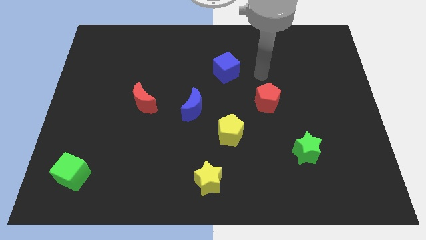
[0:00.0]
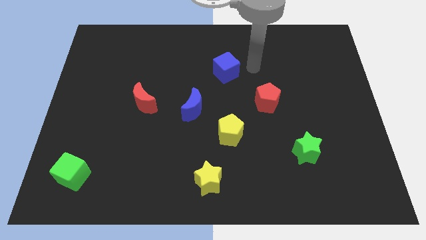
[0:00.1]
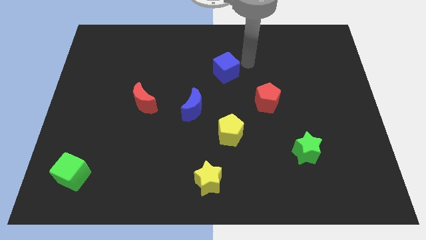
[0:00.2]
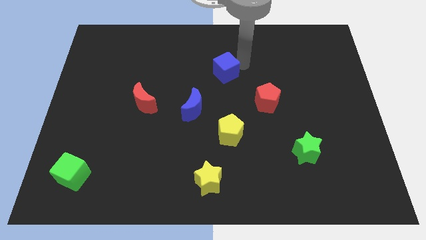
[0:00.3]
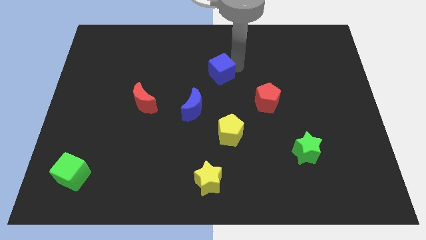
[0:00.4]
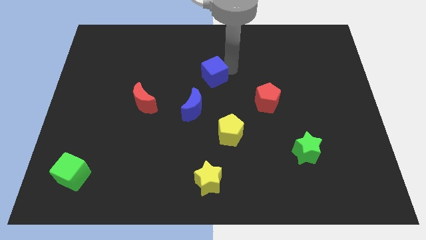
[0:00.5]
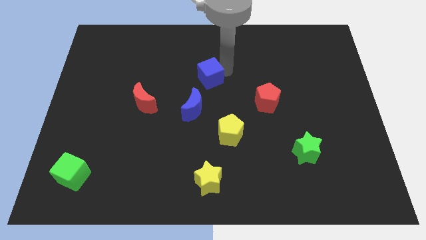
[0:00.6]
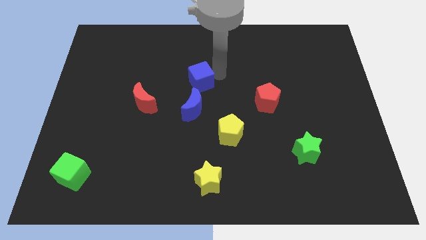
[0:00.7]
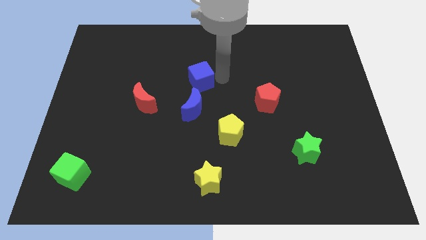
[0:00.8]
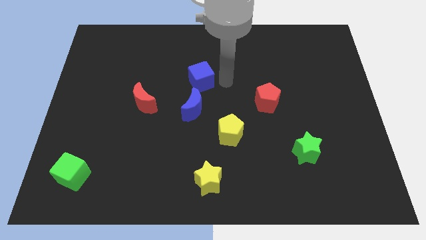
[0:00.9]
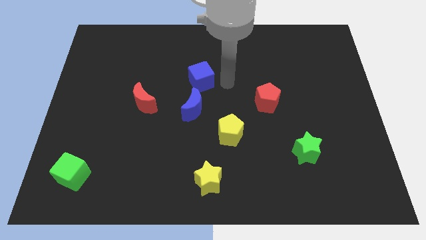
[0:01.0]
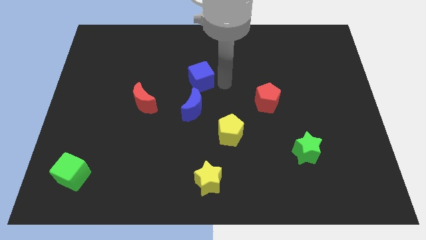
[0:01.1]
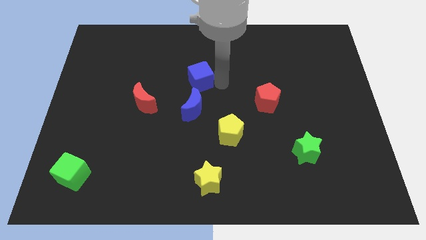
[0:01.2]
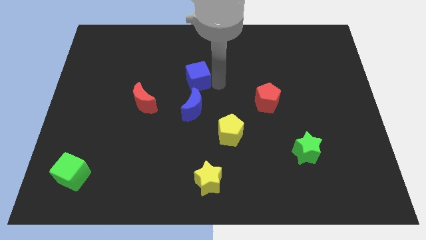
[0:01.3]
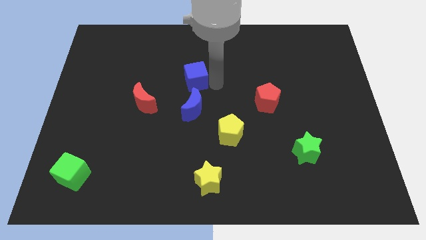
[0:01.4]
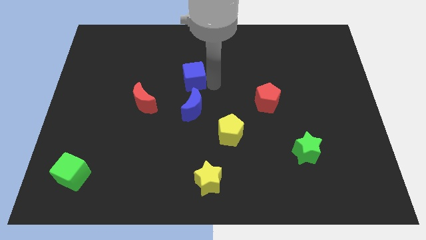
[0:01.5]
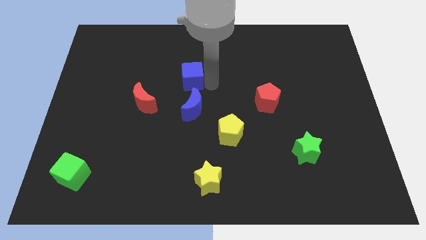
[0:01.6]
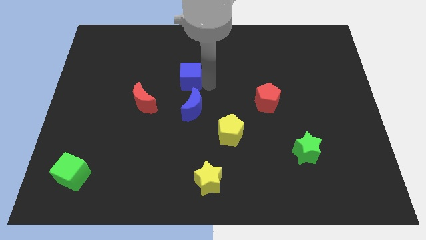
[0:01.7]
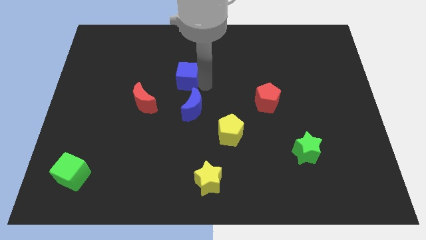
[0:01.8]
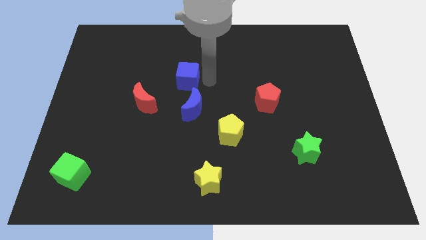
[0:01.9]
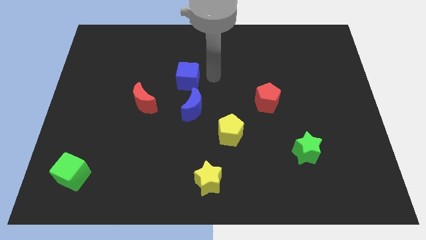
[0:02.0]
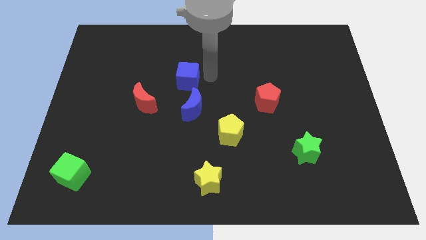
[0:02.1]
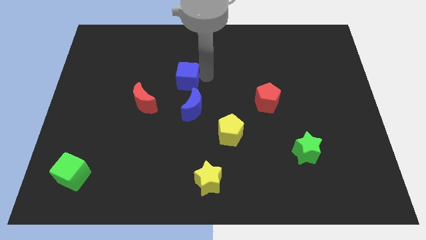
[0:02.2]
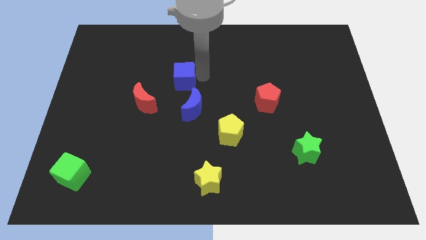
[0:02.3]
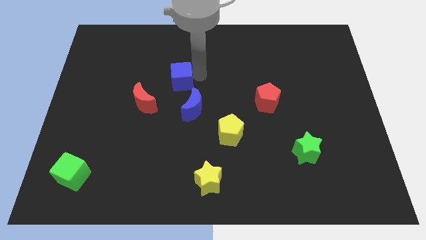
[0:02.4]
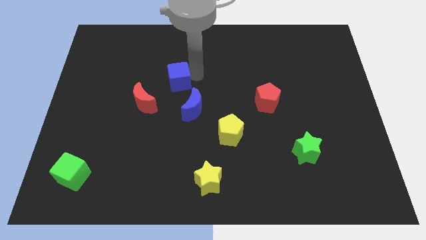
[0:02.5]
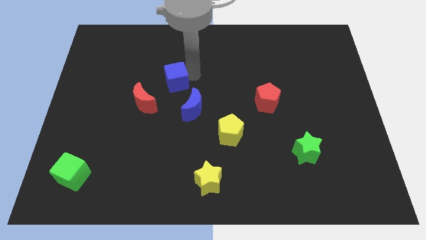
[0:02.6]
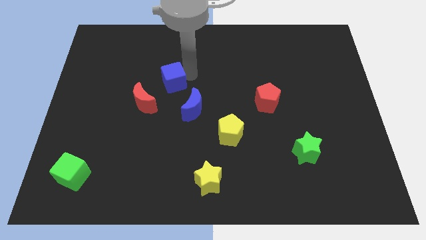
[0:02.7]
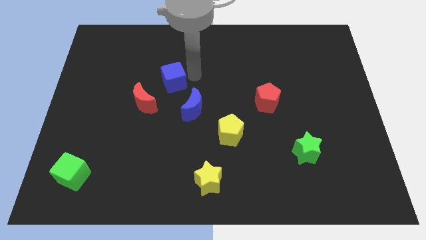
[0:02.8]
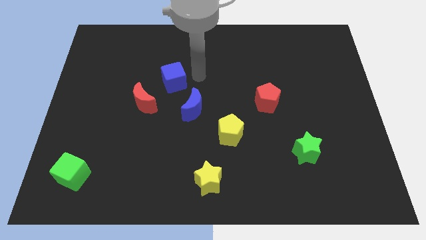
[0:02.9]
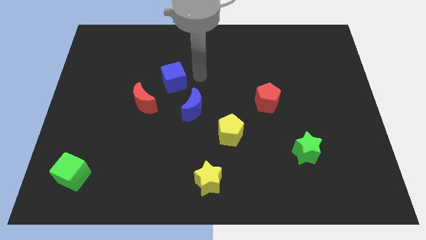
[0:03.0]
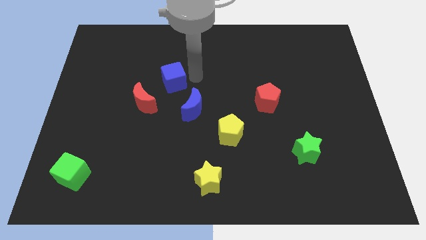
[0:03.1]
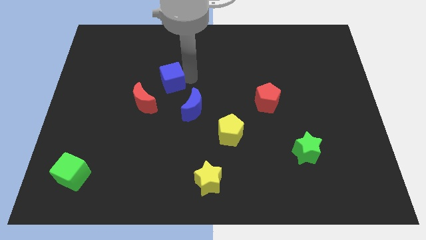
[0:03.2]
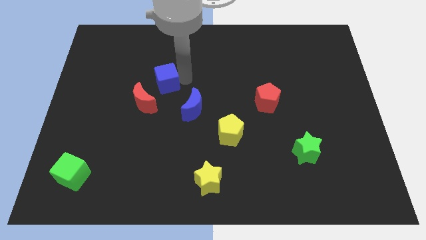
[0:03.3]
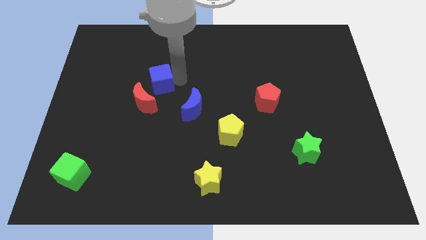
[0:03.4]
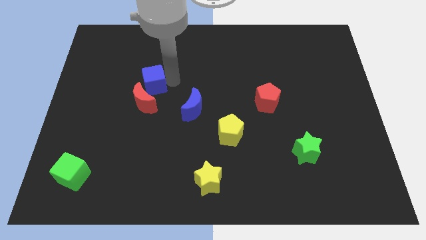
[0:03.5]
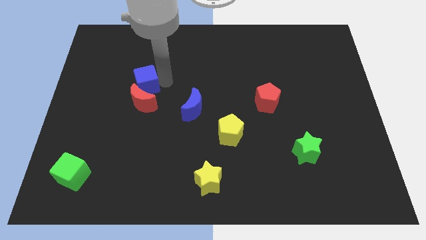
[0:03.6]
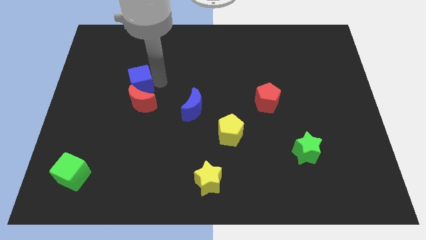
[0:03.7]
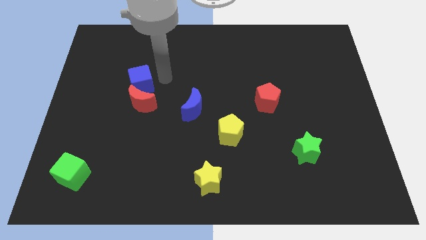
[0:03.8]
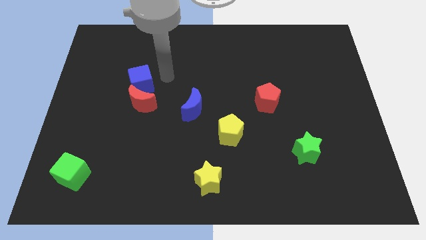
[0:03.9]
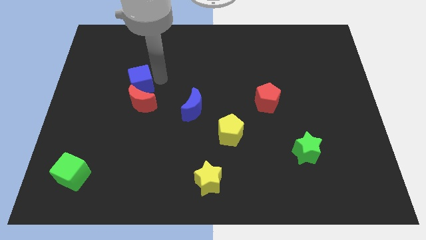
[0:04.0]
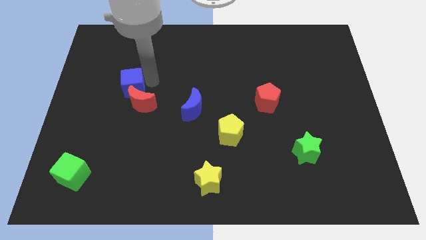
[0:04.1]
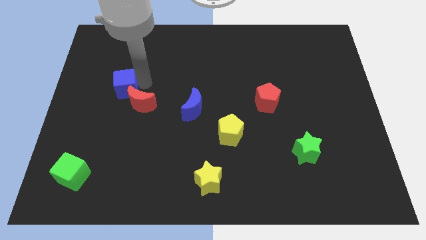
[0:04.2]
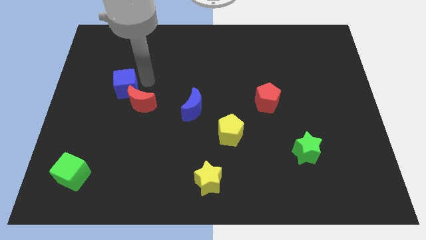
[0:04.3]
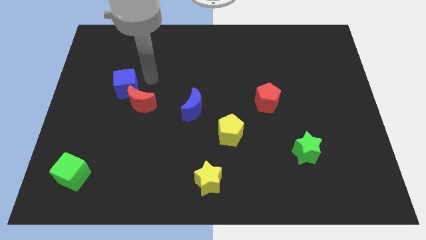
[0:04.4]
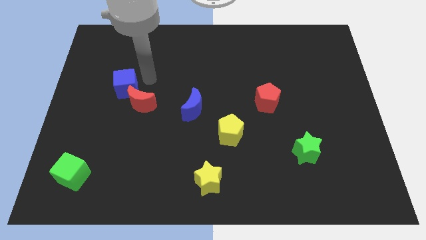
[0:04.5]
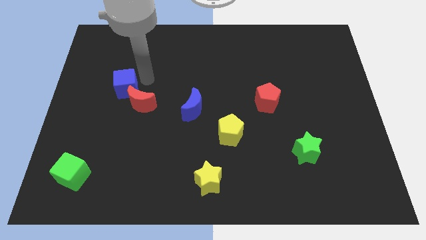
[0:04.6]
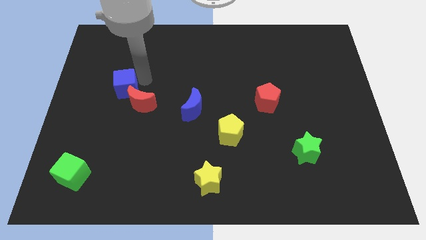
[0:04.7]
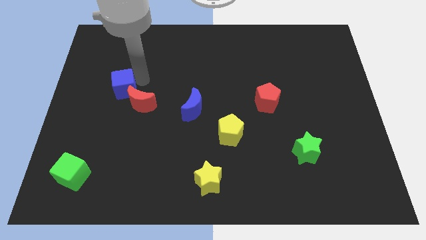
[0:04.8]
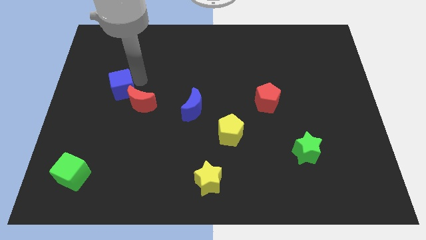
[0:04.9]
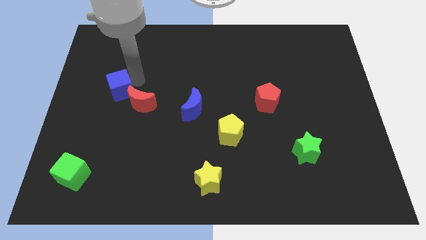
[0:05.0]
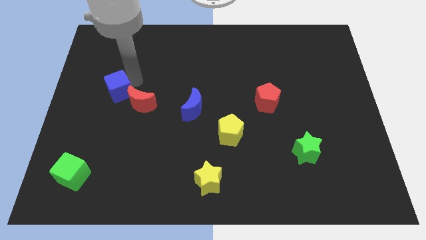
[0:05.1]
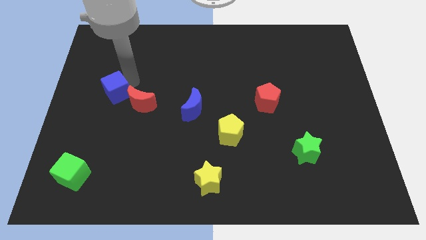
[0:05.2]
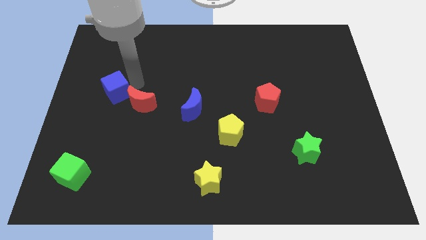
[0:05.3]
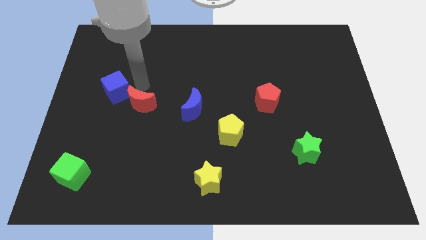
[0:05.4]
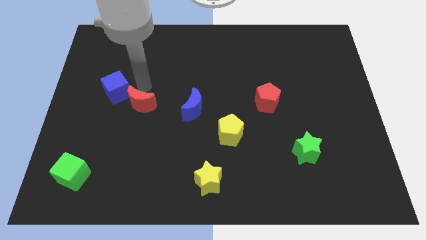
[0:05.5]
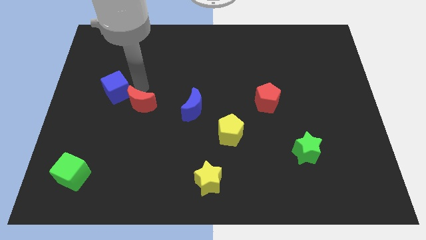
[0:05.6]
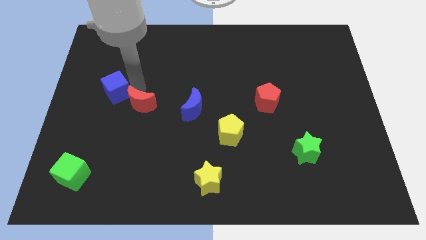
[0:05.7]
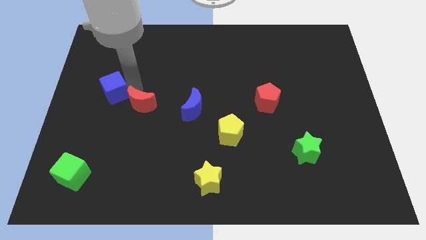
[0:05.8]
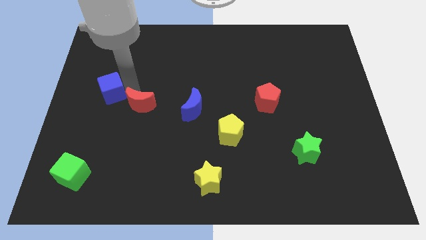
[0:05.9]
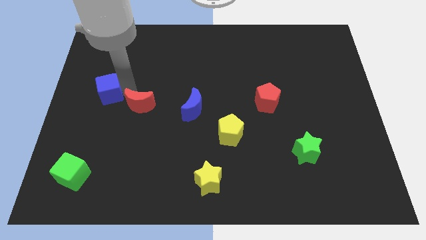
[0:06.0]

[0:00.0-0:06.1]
slide the blue cube to the left side
